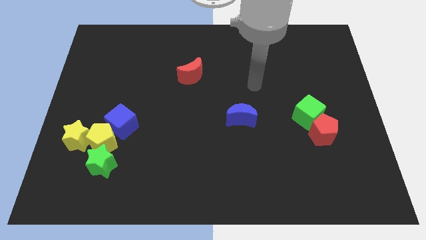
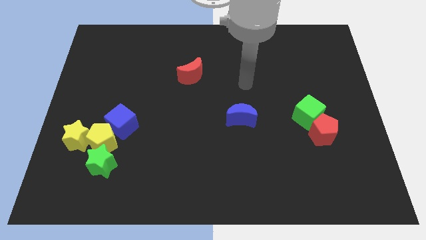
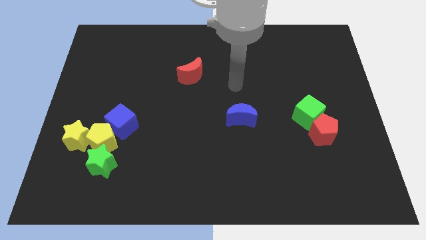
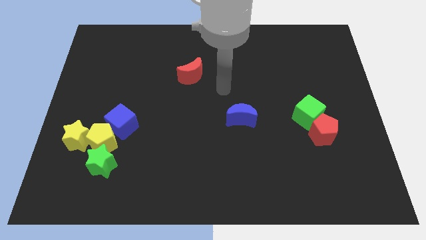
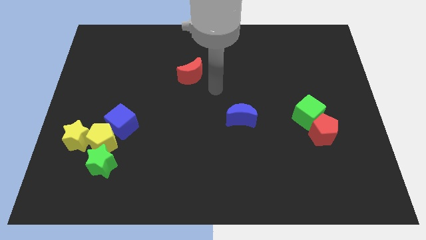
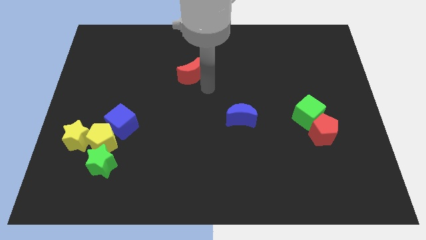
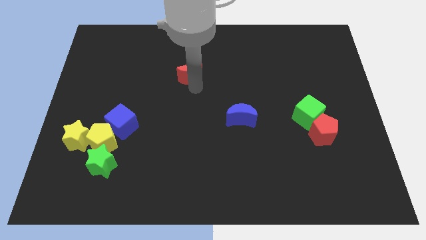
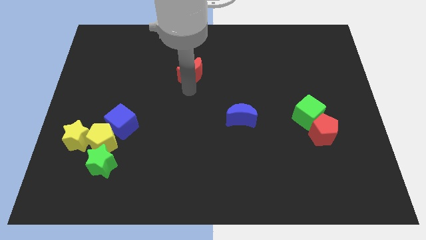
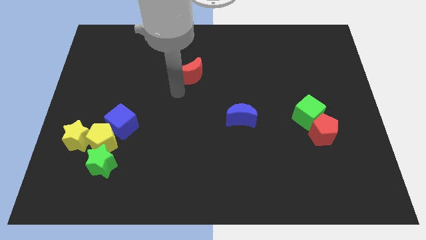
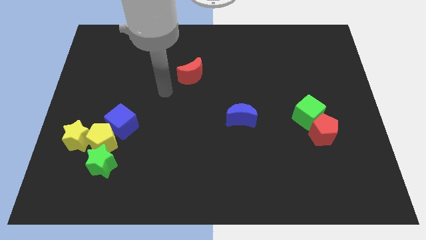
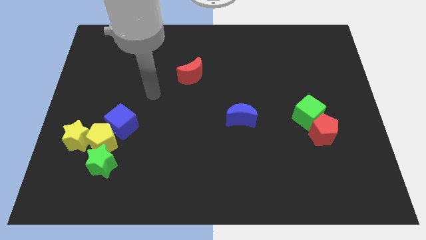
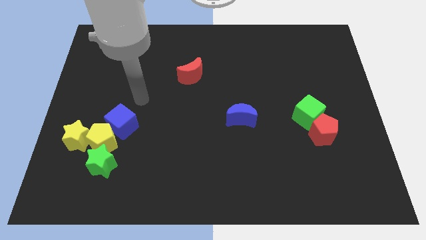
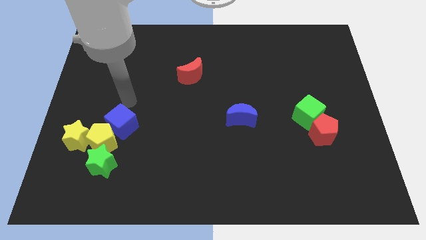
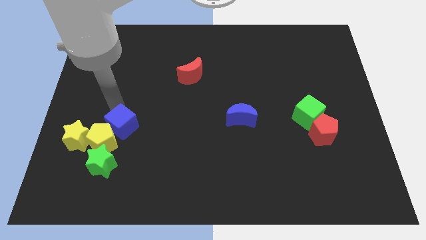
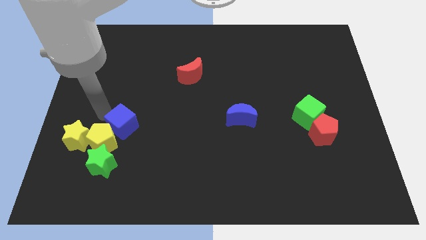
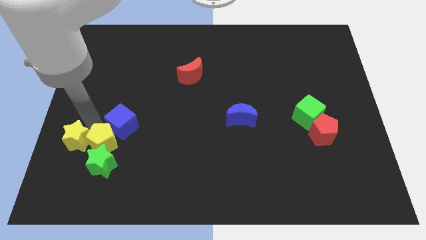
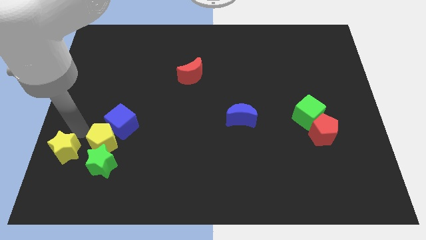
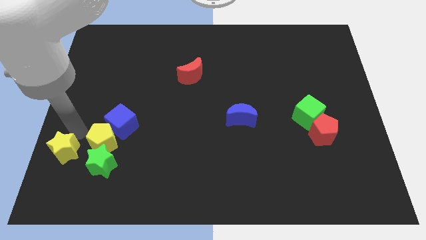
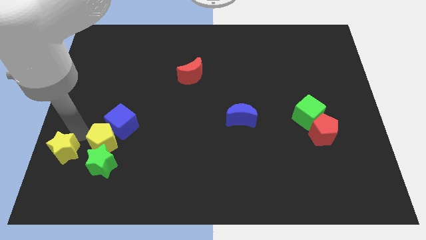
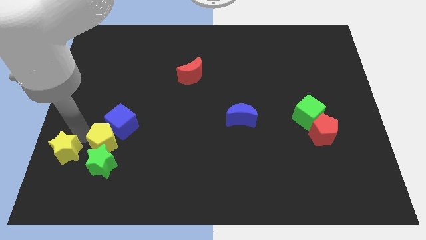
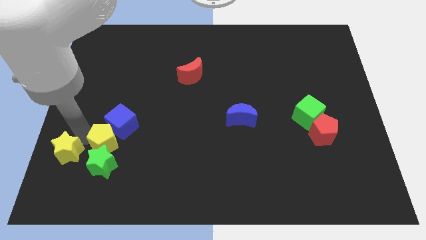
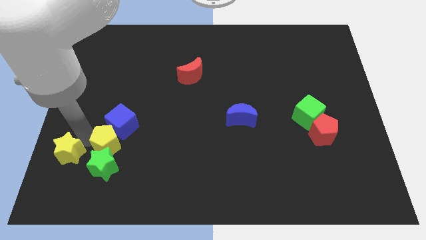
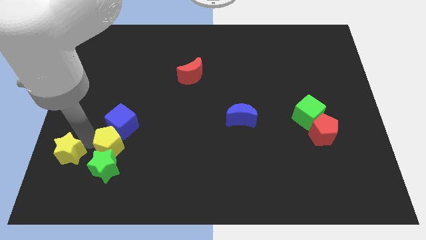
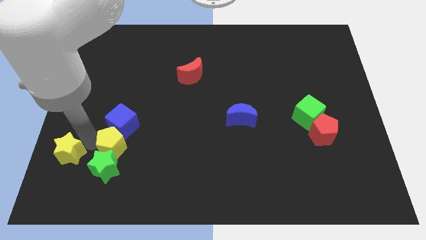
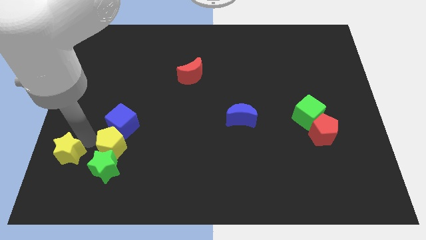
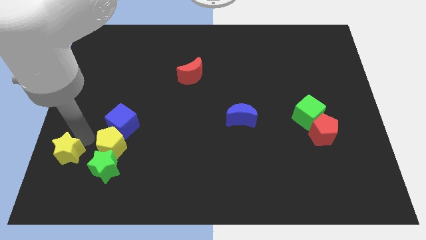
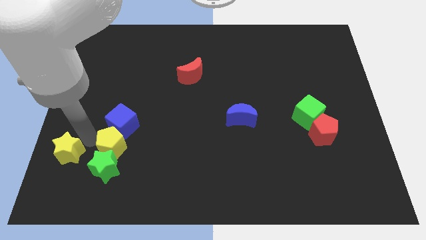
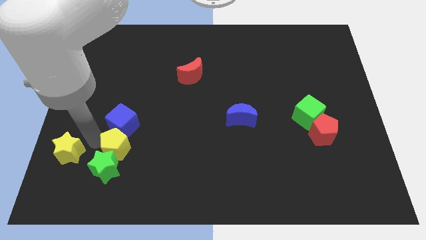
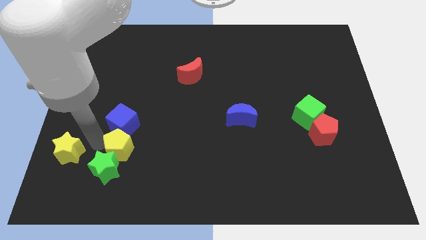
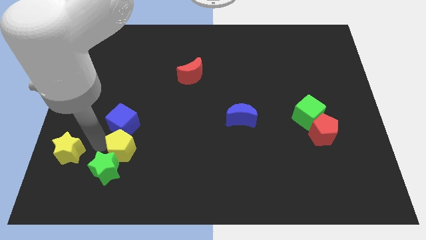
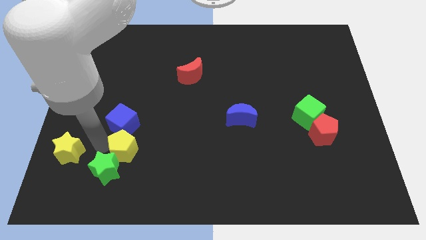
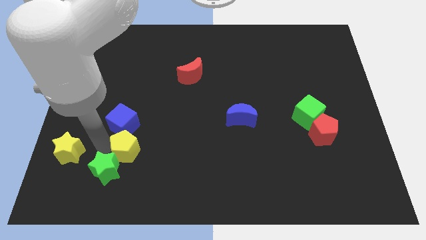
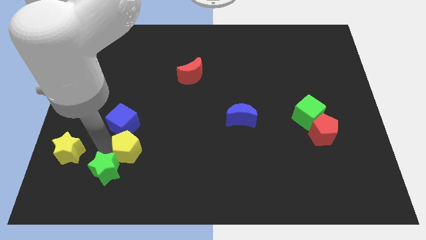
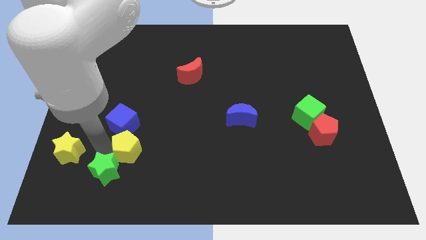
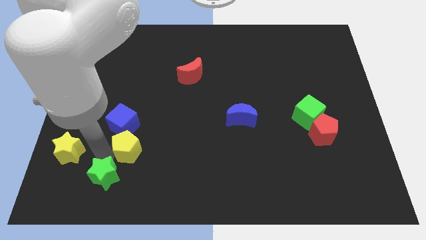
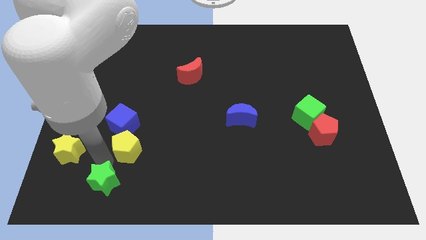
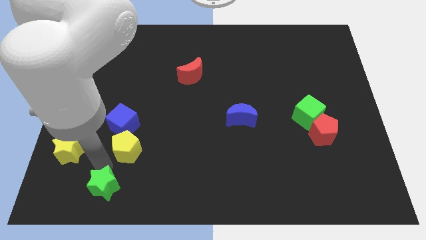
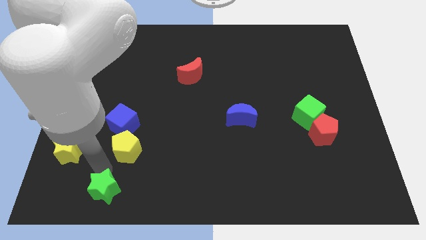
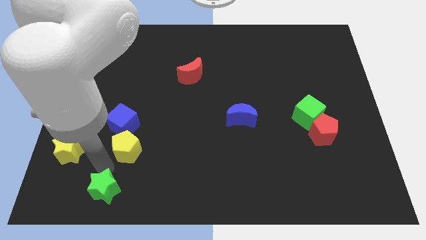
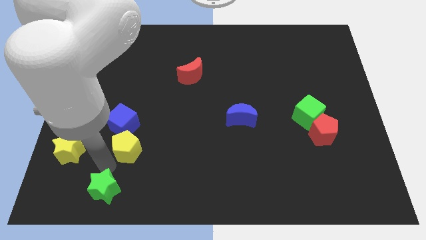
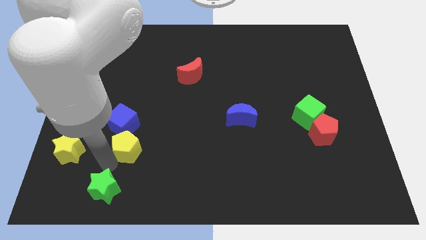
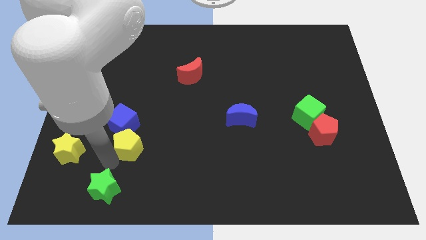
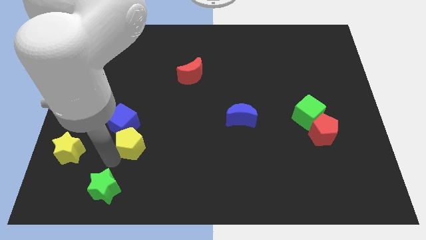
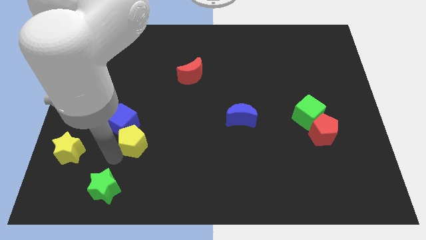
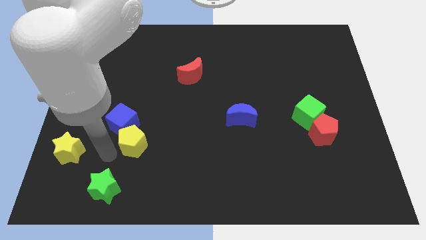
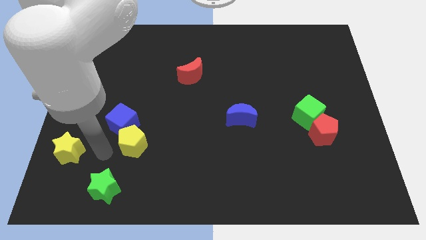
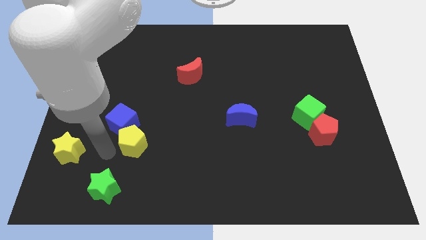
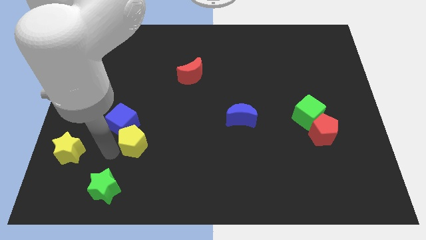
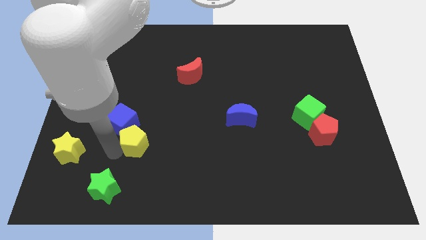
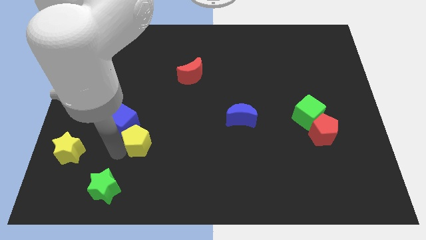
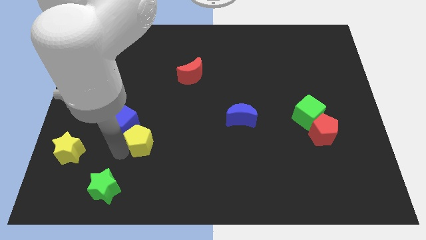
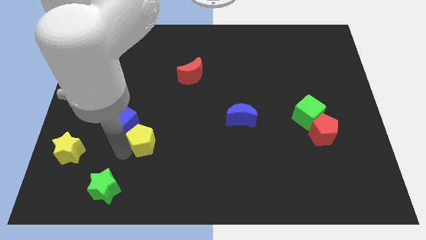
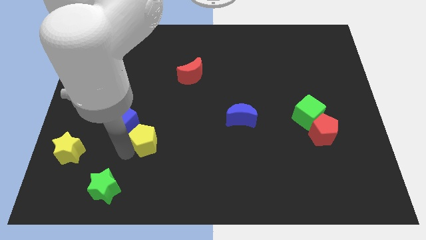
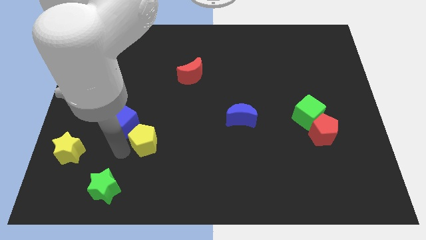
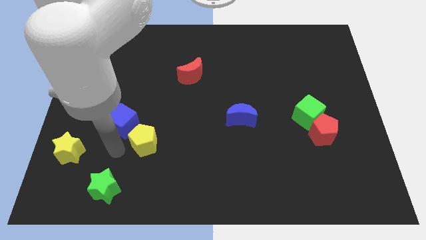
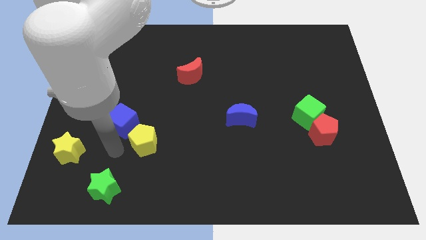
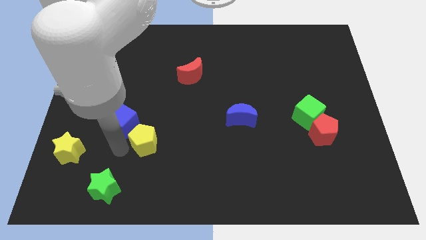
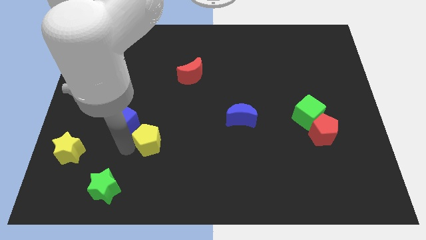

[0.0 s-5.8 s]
pull the yellow pentagon apart from the group

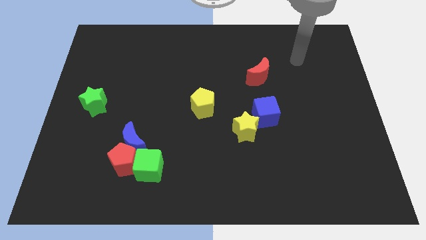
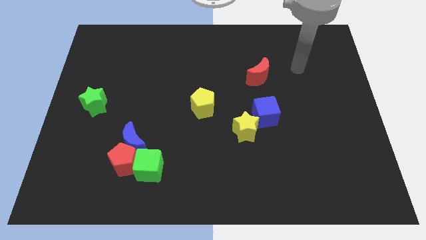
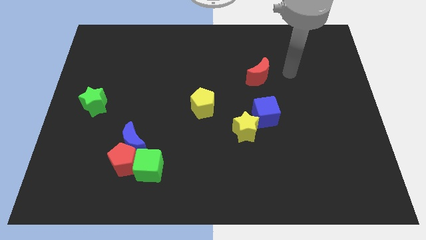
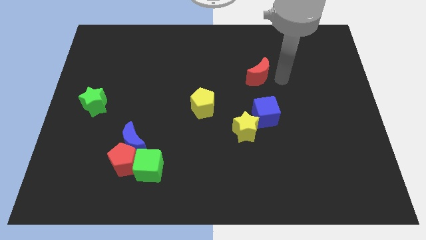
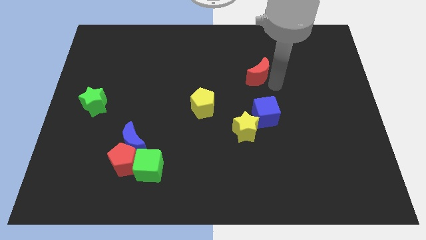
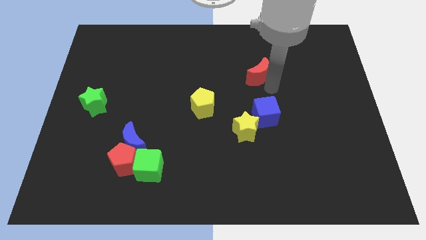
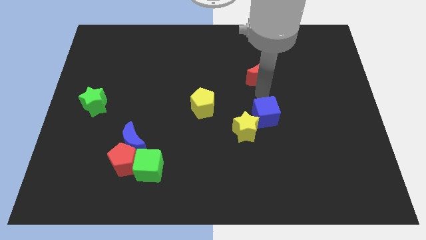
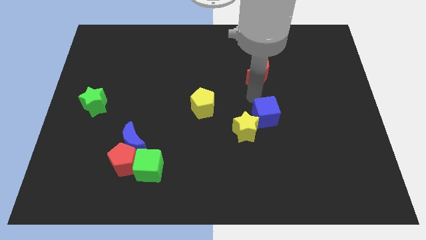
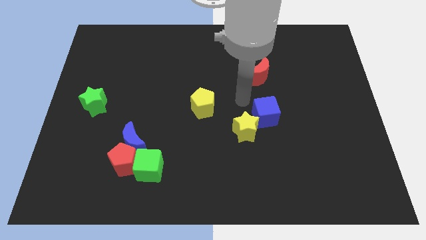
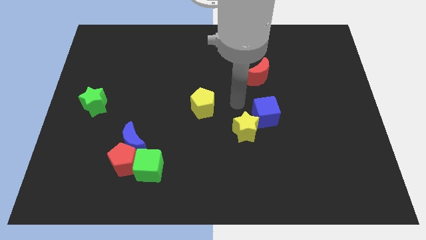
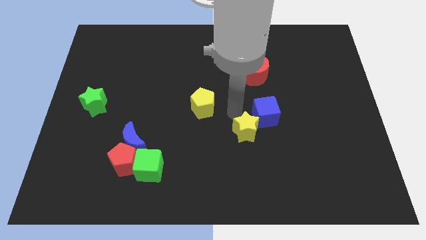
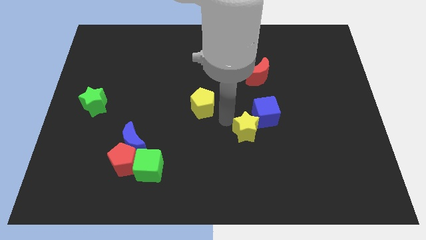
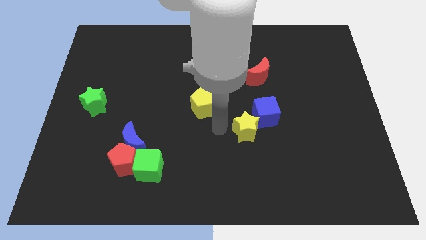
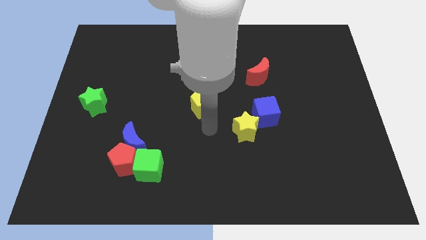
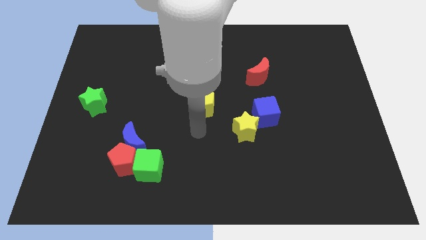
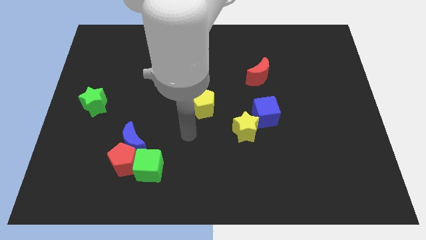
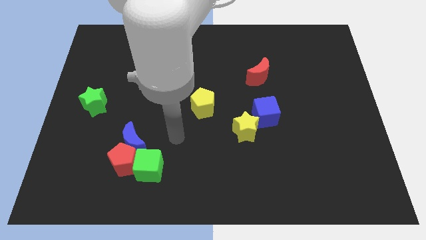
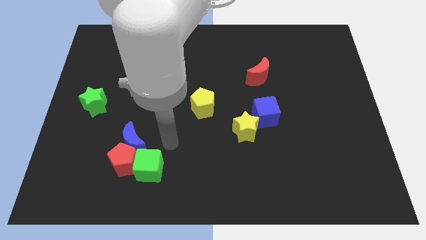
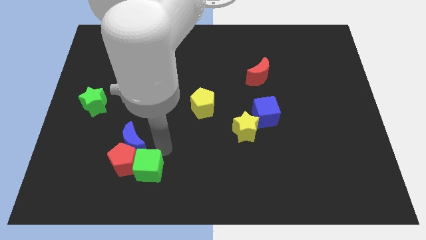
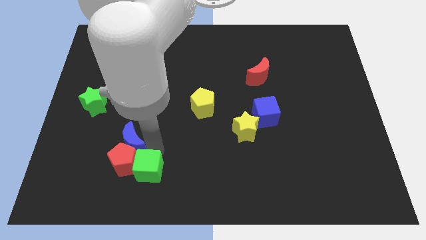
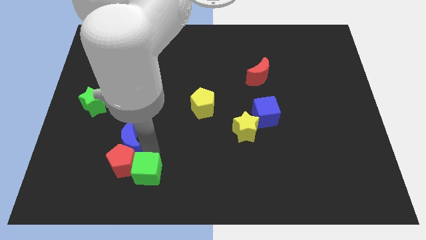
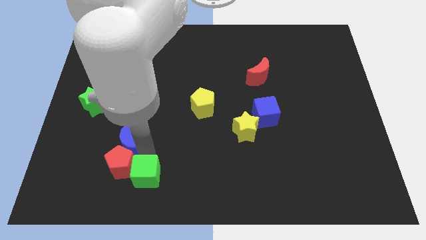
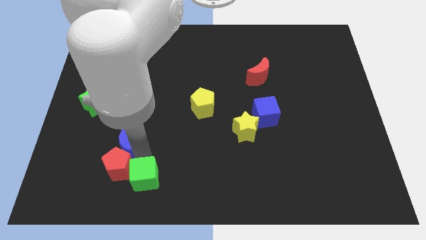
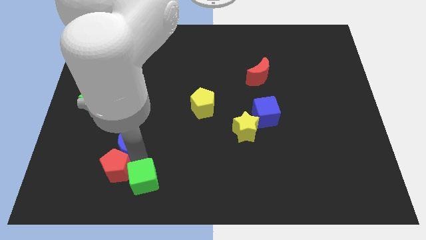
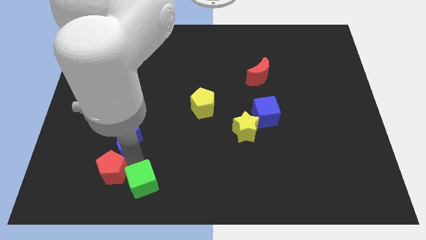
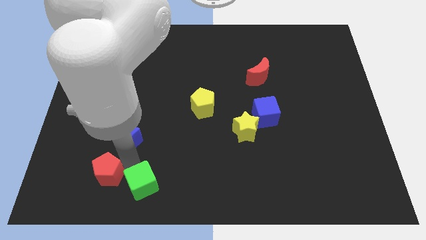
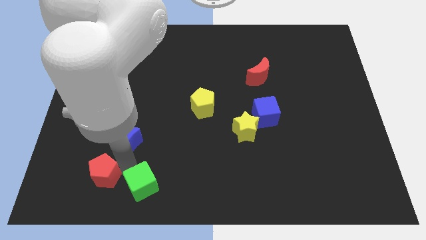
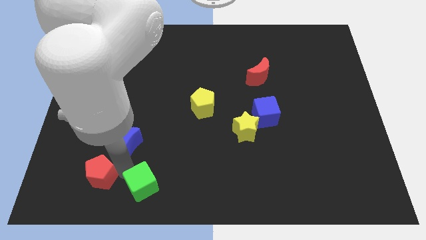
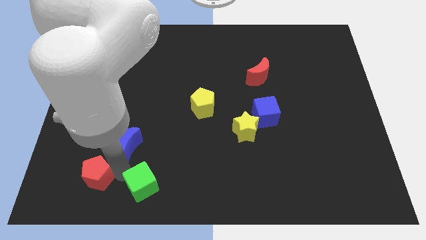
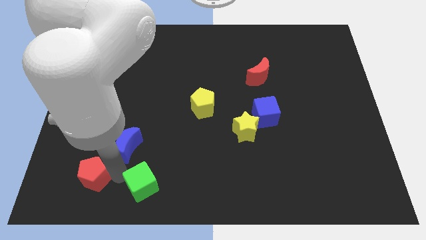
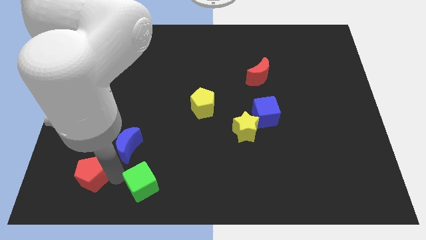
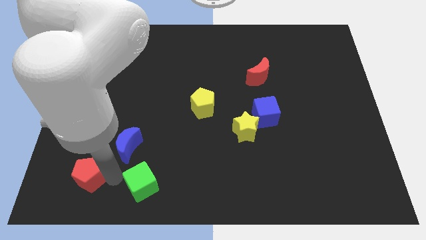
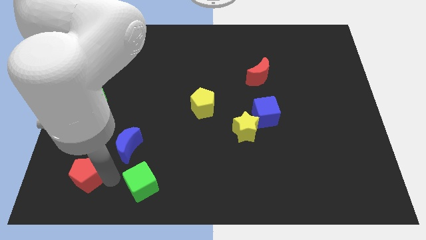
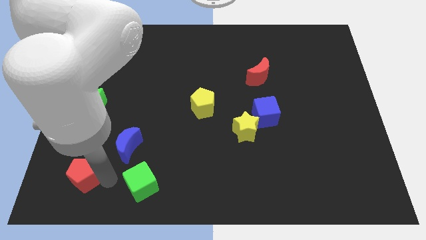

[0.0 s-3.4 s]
pull the red pentagon apart from the blue moon and green cube

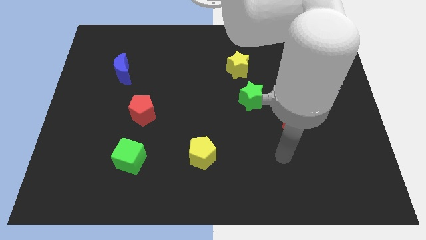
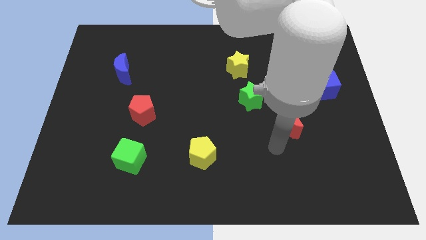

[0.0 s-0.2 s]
pull the green star apart from the yellow star
